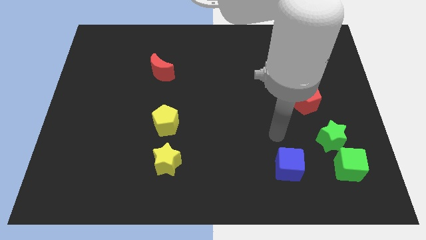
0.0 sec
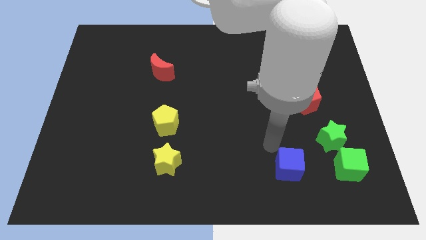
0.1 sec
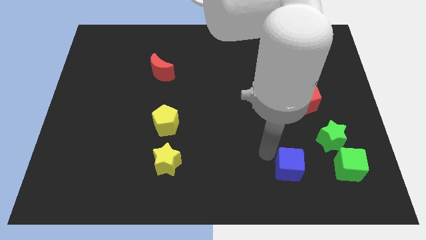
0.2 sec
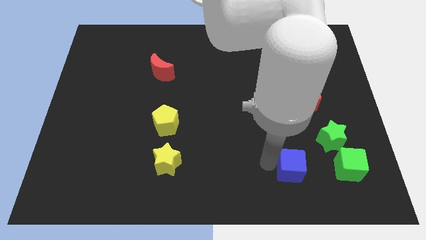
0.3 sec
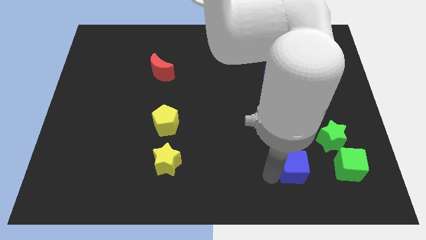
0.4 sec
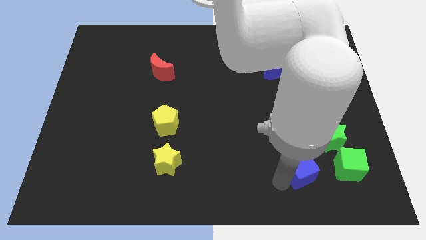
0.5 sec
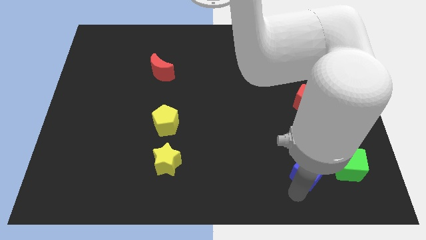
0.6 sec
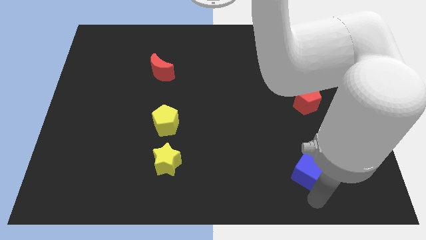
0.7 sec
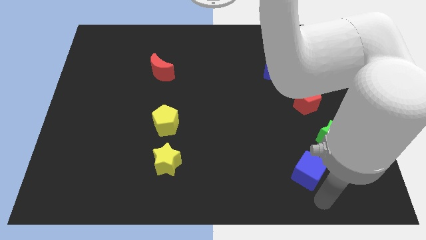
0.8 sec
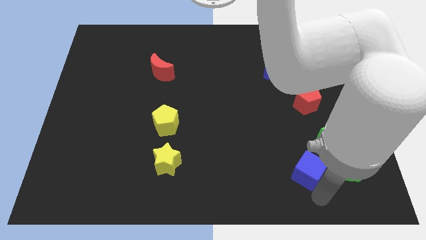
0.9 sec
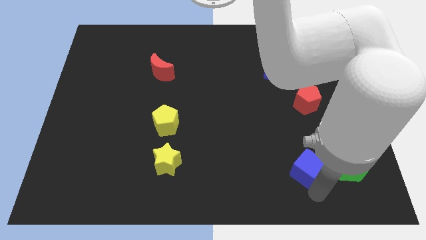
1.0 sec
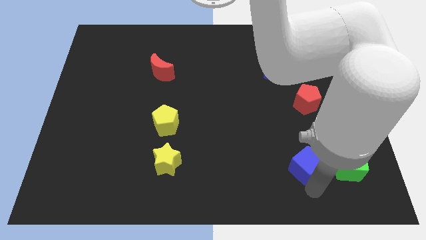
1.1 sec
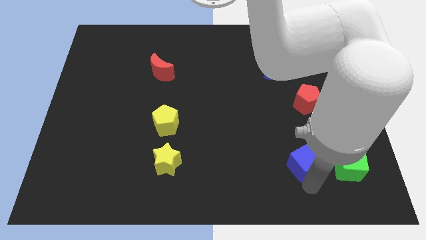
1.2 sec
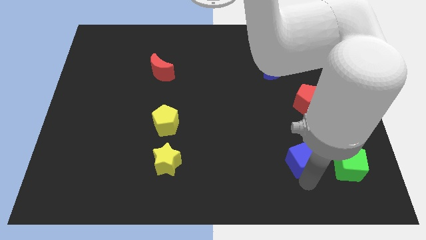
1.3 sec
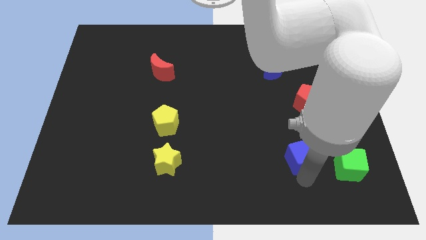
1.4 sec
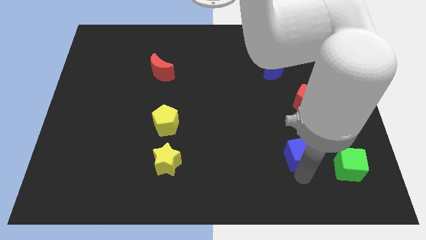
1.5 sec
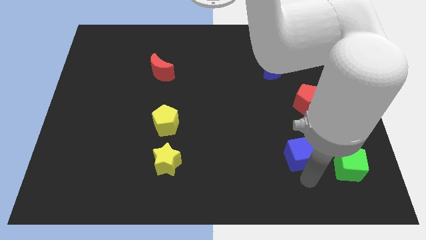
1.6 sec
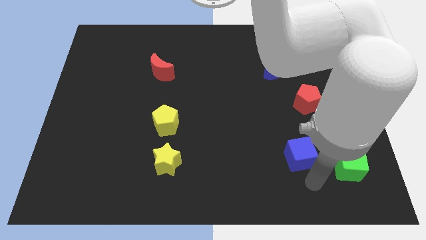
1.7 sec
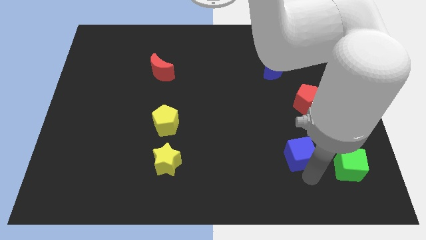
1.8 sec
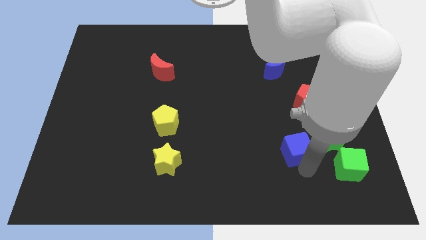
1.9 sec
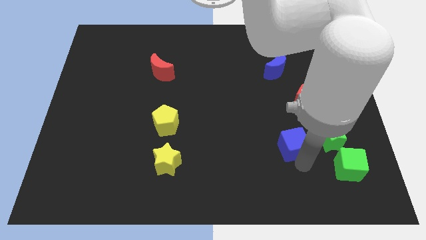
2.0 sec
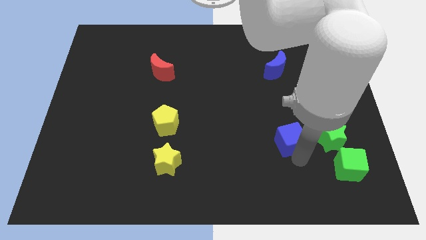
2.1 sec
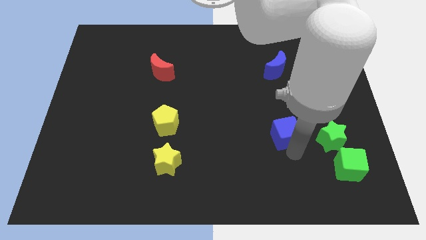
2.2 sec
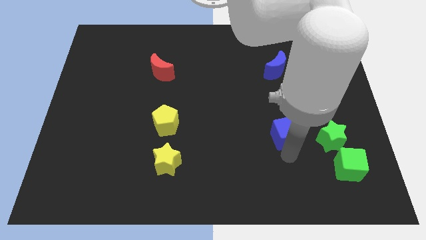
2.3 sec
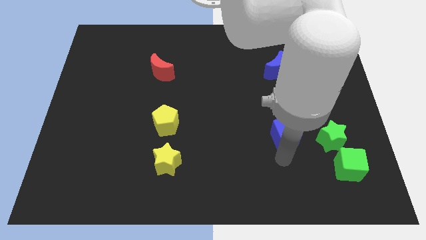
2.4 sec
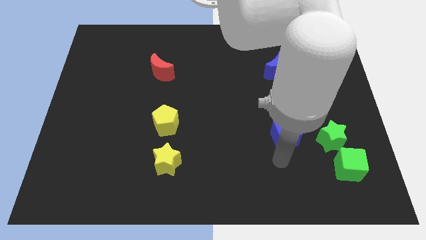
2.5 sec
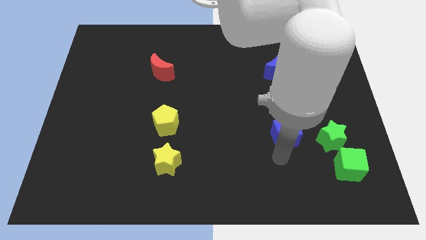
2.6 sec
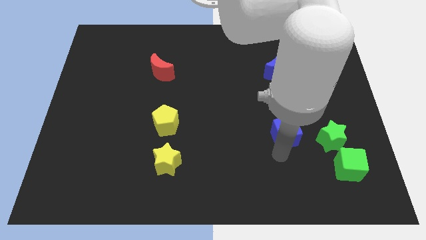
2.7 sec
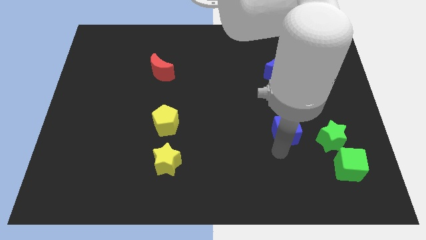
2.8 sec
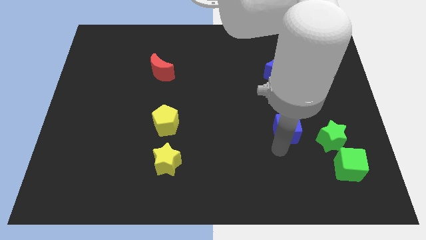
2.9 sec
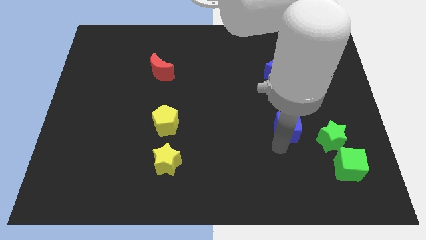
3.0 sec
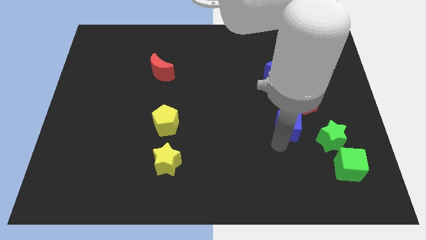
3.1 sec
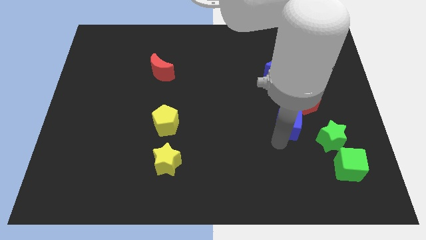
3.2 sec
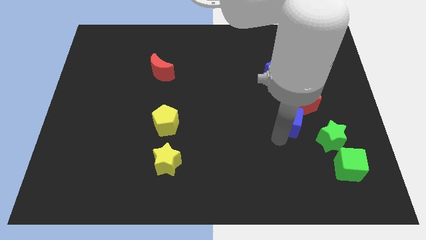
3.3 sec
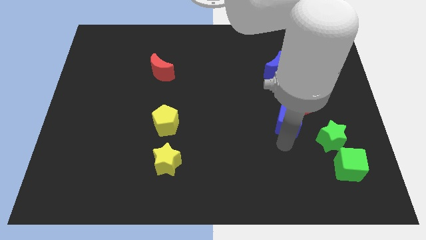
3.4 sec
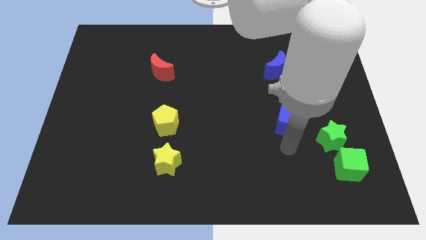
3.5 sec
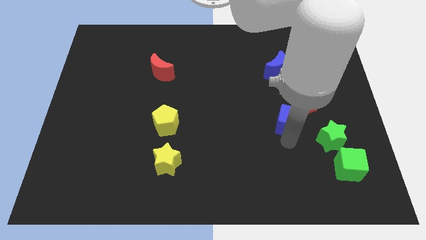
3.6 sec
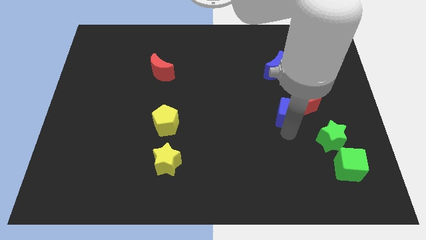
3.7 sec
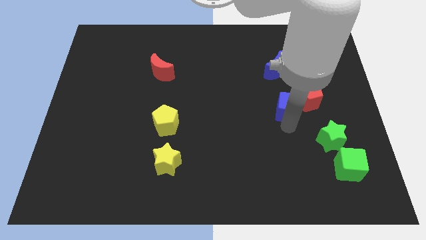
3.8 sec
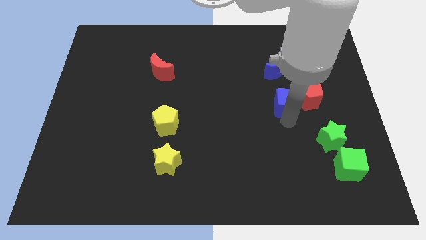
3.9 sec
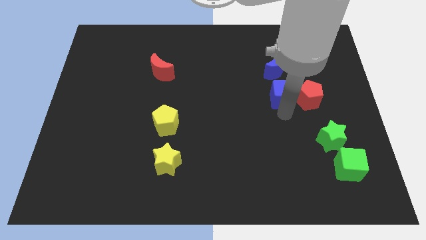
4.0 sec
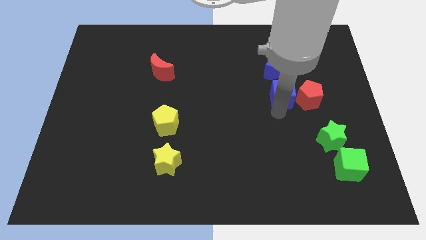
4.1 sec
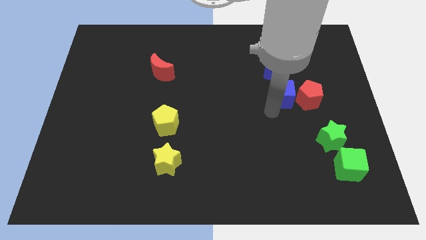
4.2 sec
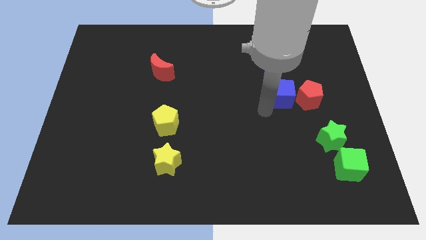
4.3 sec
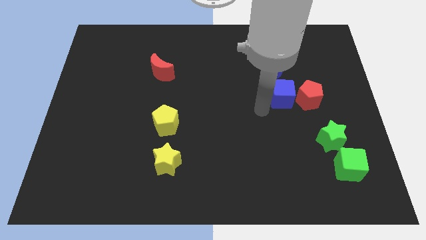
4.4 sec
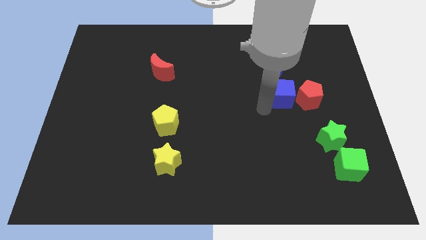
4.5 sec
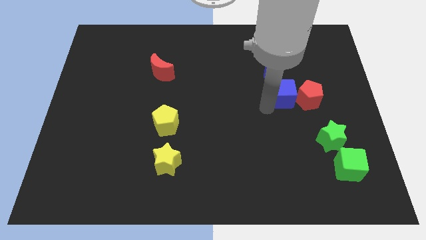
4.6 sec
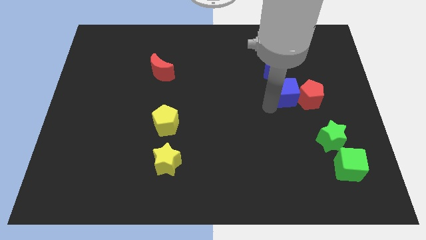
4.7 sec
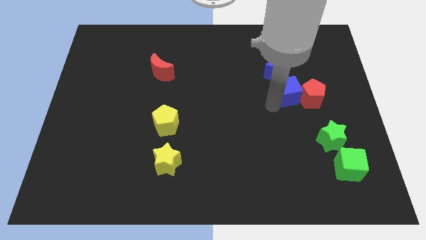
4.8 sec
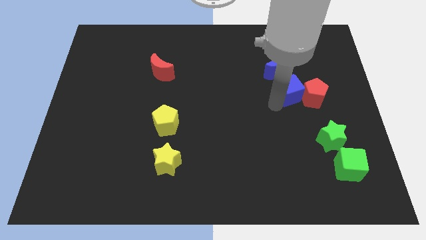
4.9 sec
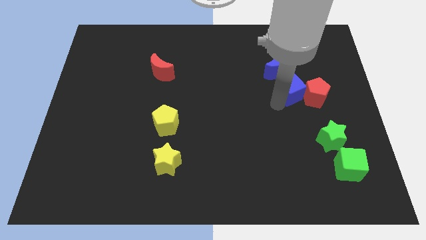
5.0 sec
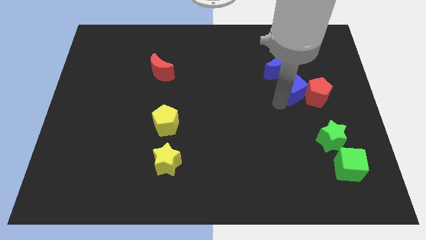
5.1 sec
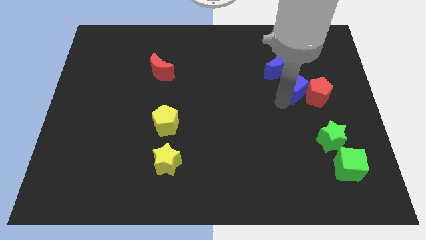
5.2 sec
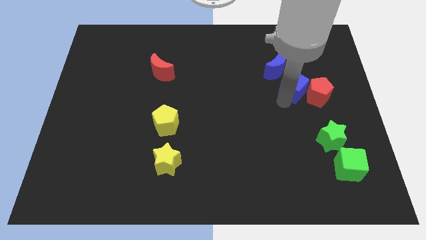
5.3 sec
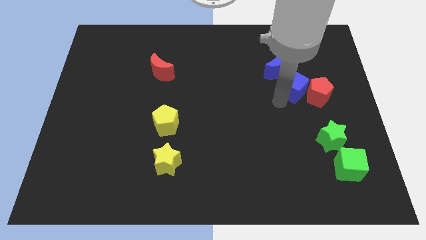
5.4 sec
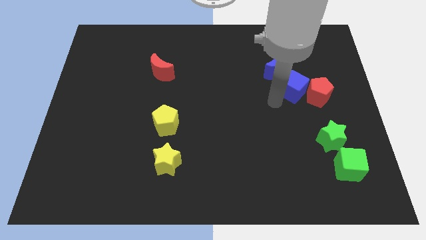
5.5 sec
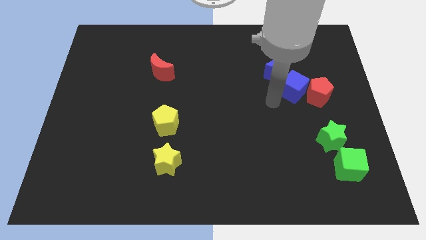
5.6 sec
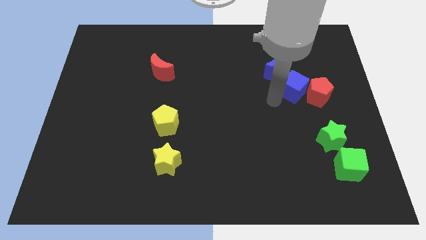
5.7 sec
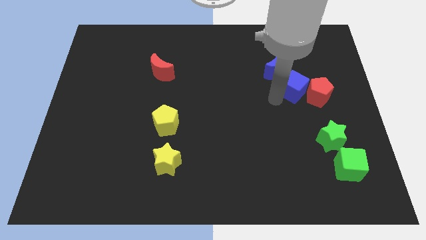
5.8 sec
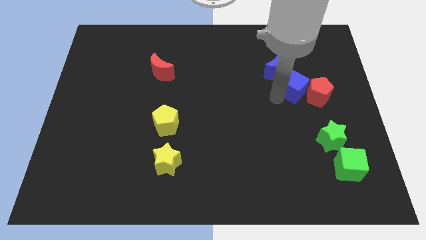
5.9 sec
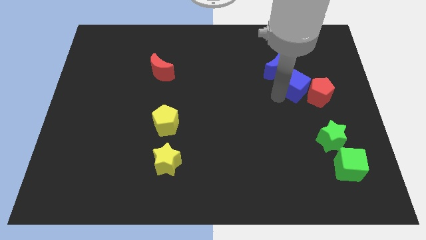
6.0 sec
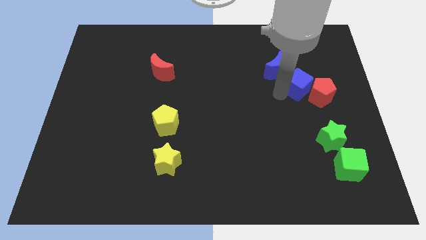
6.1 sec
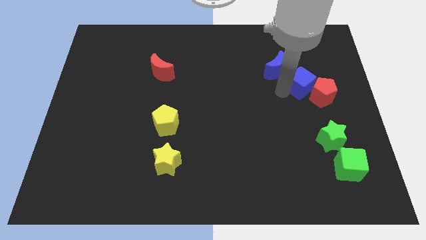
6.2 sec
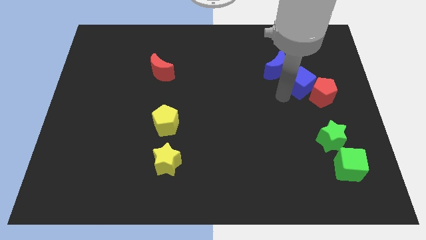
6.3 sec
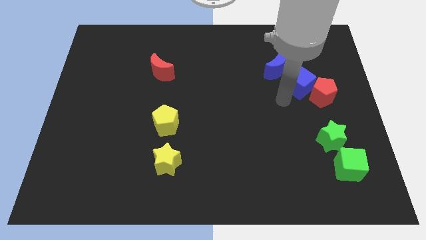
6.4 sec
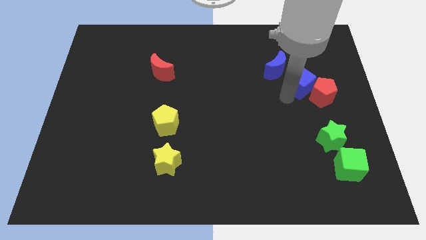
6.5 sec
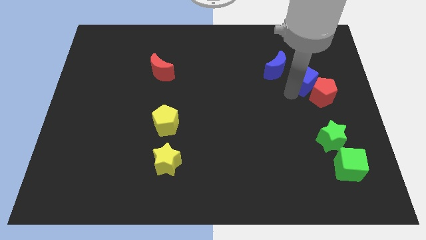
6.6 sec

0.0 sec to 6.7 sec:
push the blue cube right of the blue moon

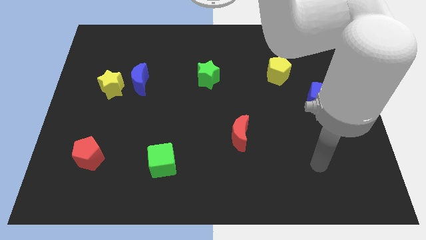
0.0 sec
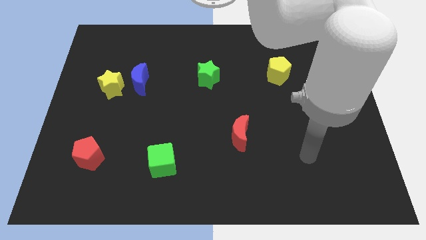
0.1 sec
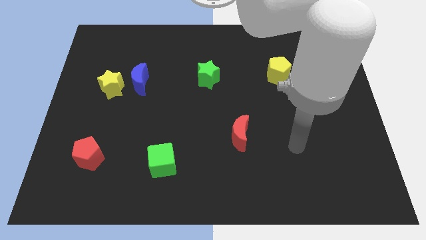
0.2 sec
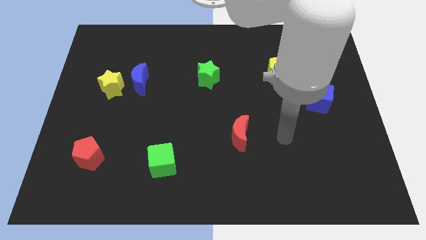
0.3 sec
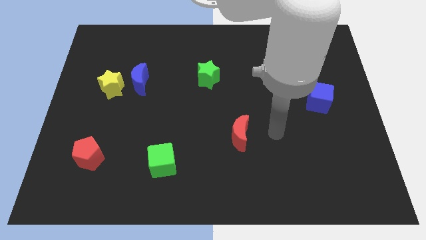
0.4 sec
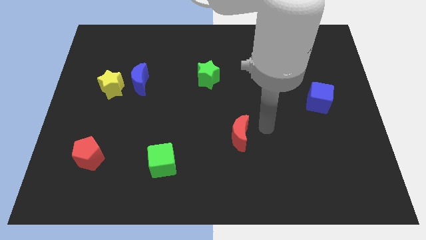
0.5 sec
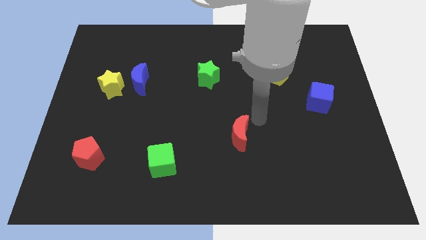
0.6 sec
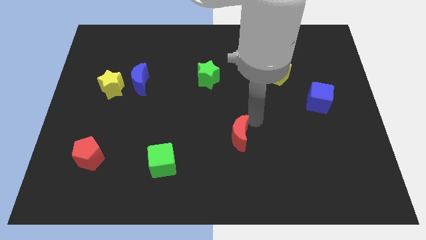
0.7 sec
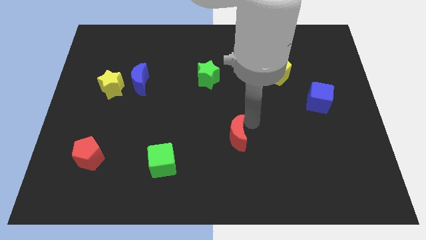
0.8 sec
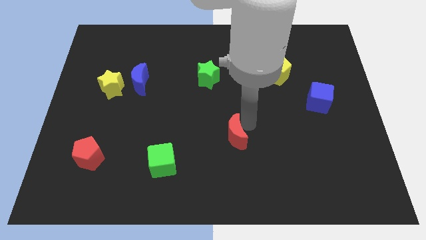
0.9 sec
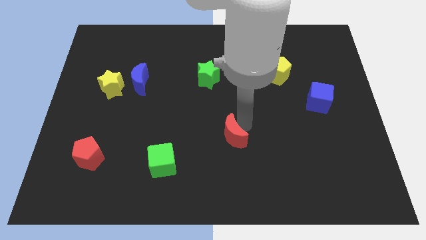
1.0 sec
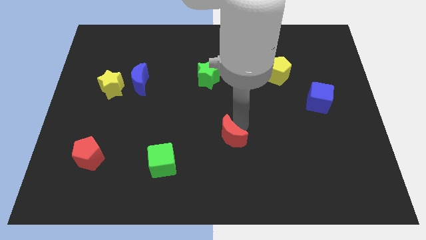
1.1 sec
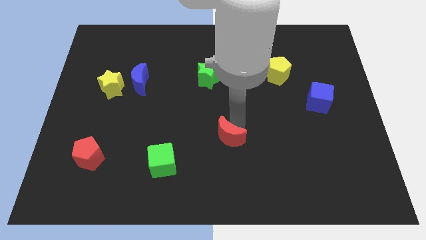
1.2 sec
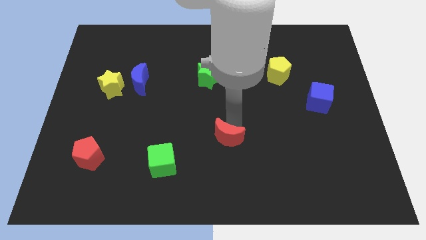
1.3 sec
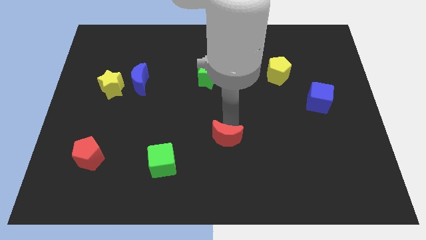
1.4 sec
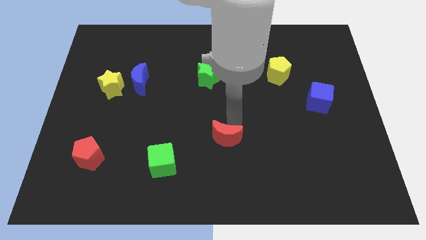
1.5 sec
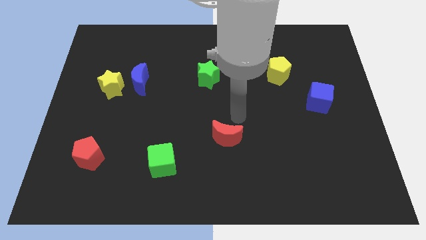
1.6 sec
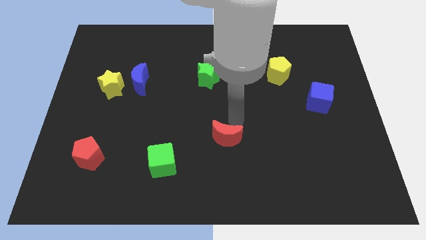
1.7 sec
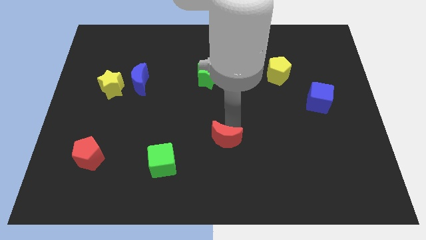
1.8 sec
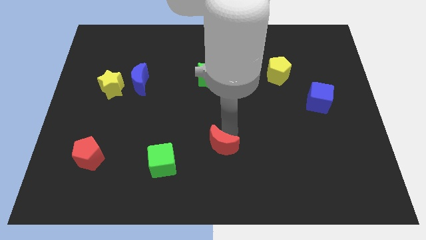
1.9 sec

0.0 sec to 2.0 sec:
move the red moon to the right side of the green cube
